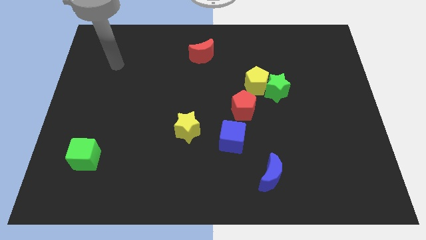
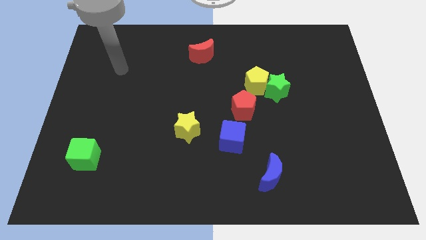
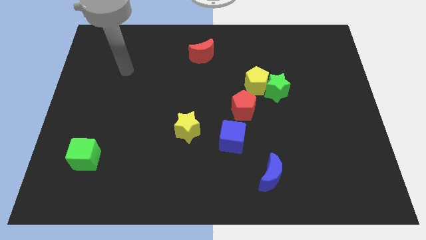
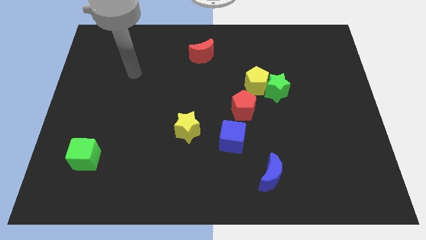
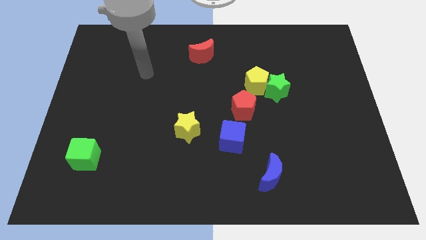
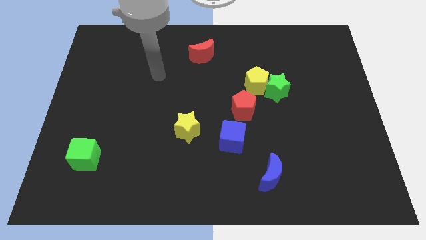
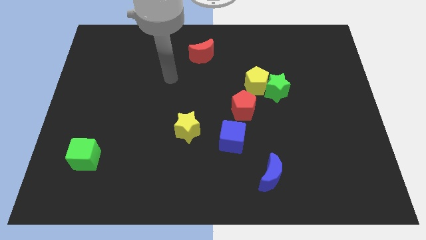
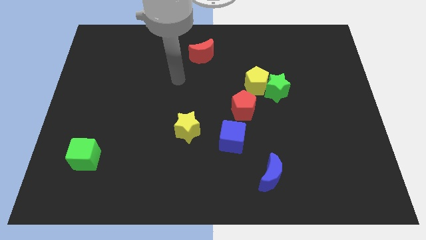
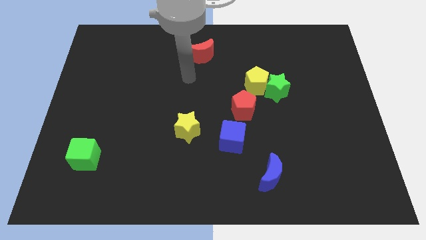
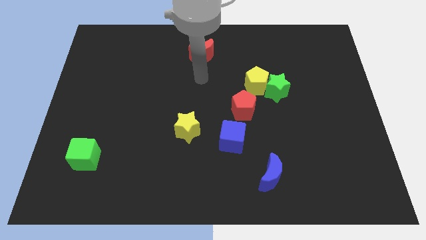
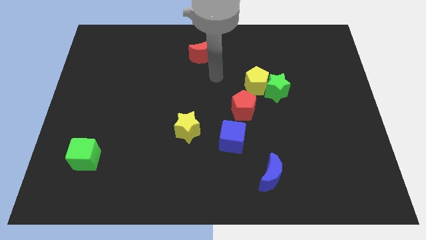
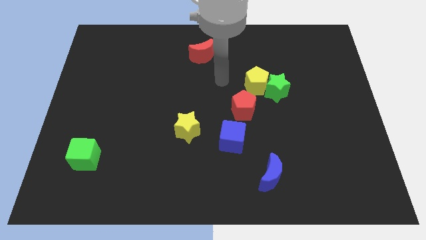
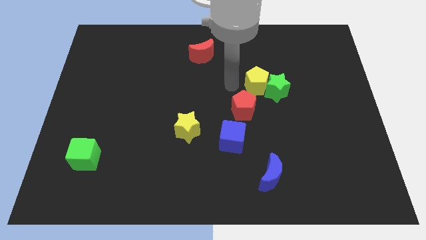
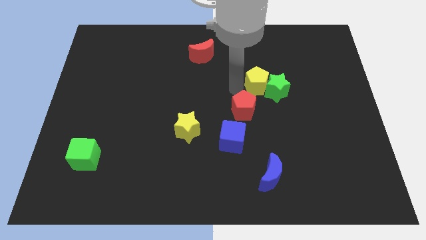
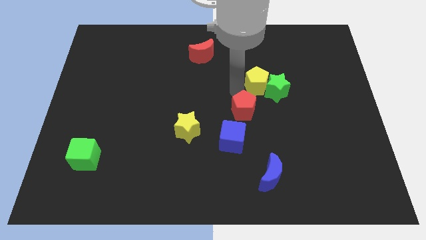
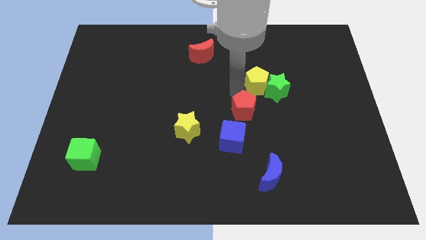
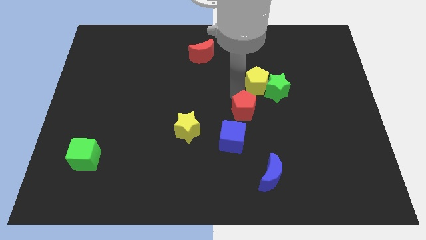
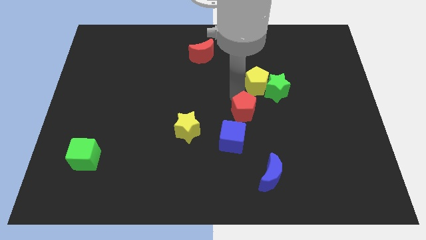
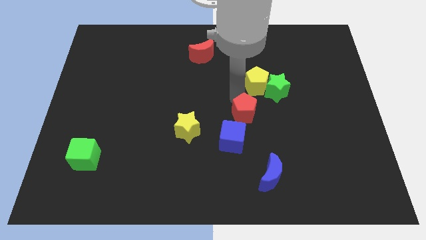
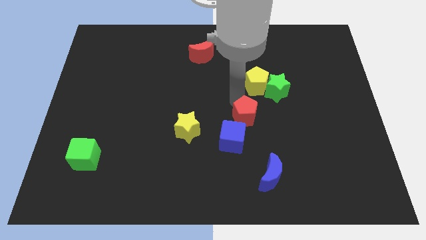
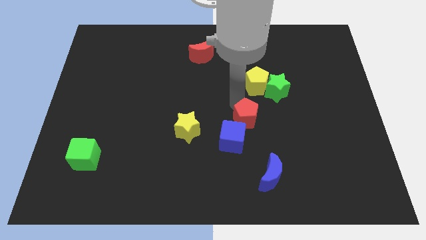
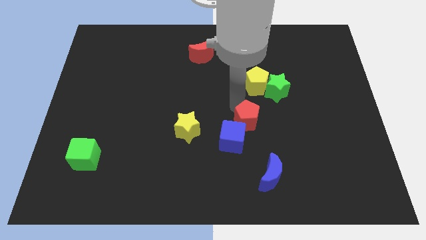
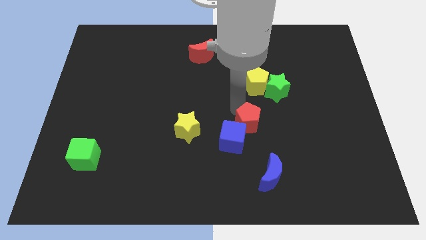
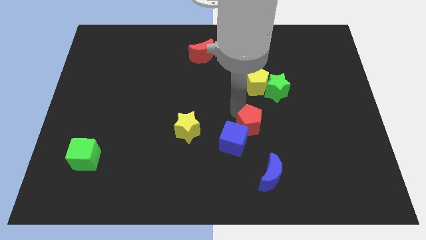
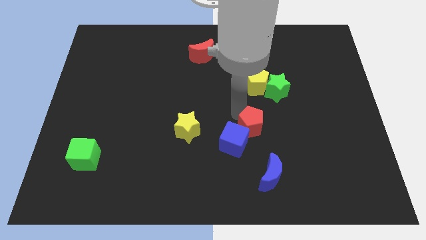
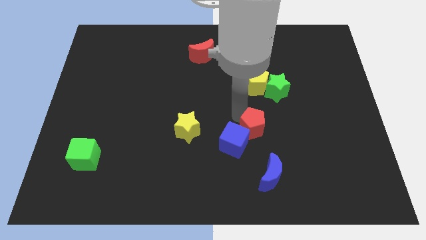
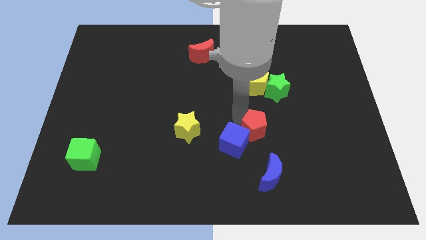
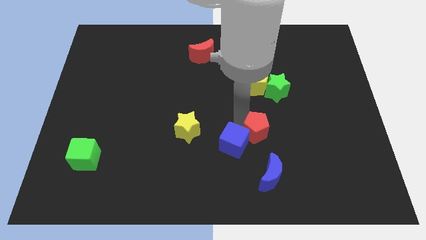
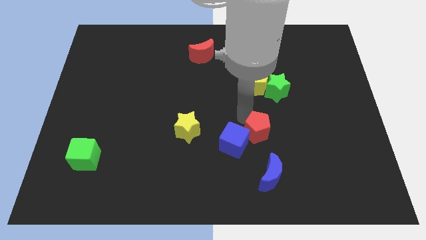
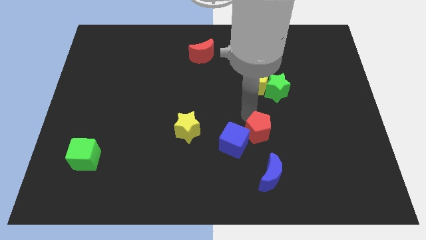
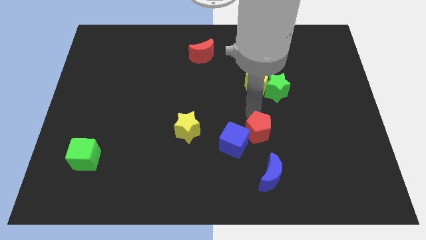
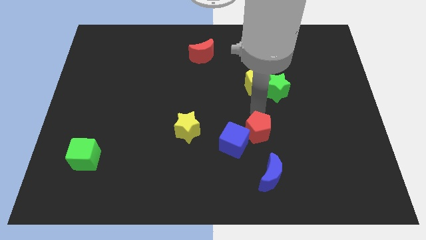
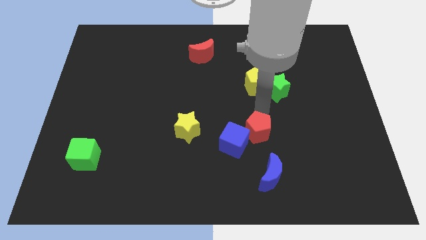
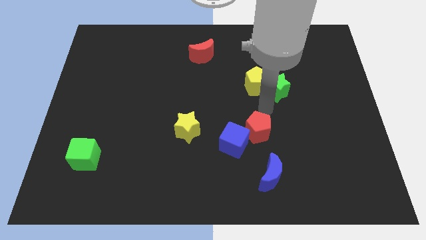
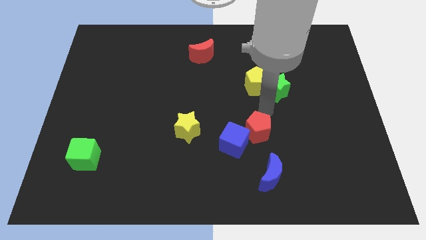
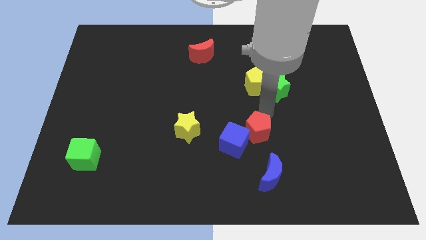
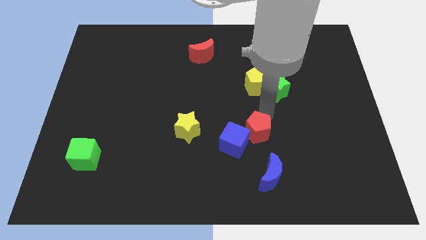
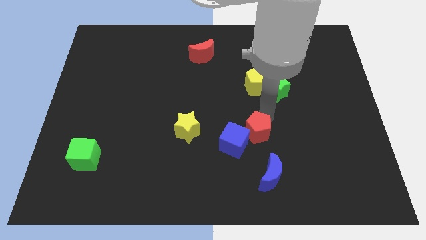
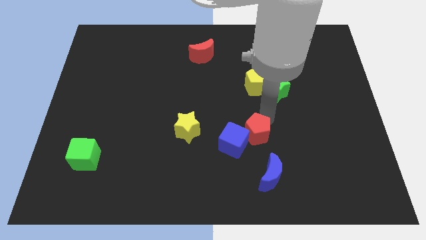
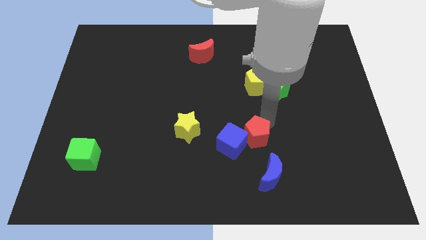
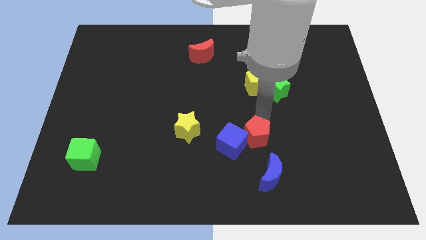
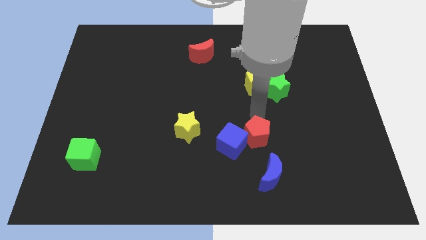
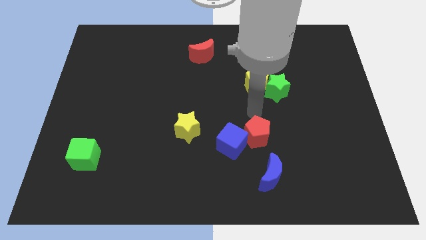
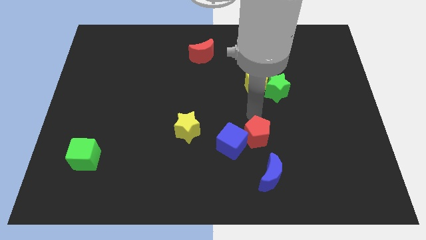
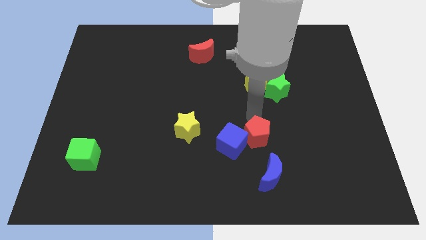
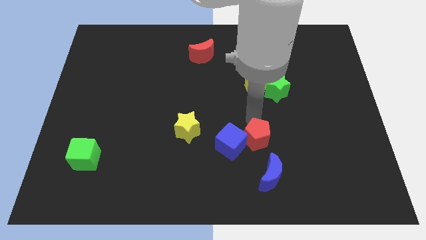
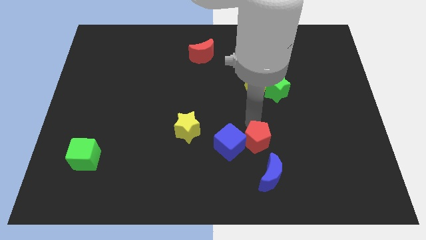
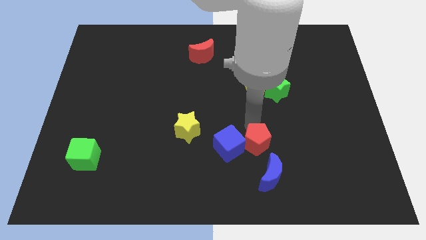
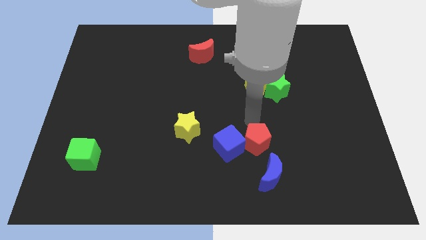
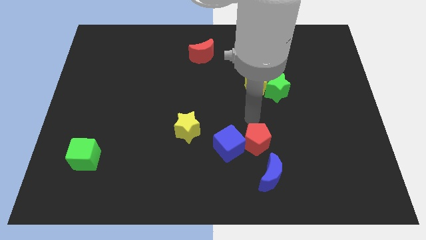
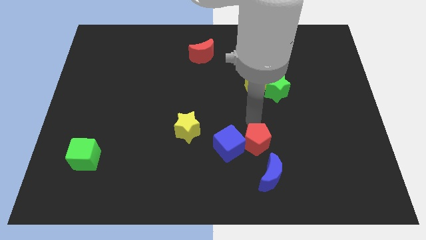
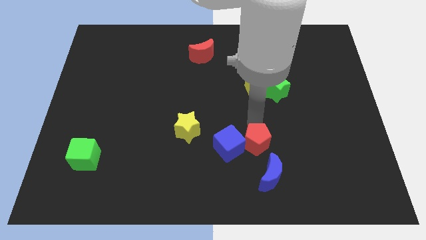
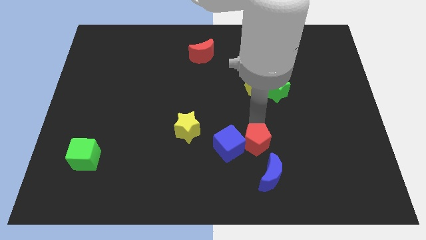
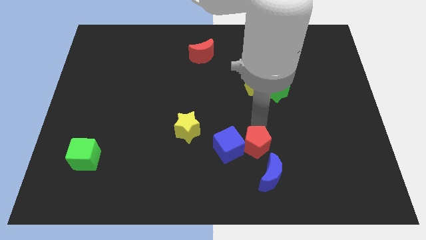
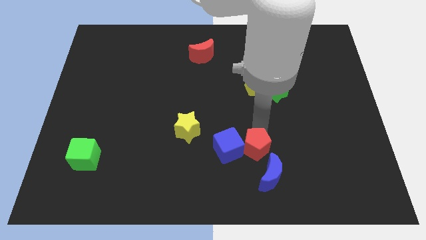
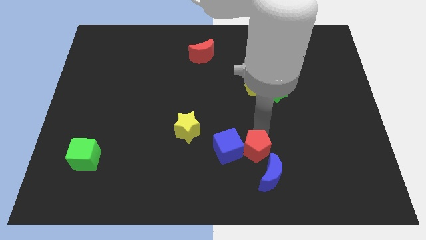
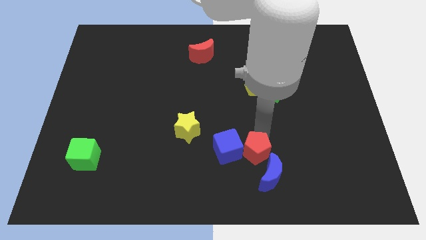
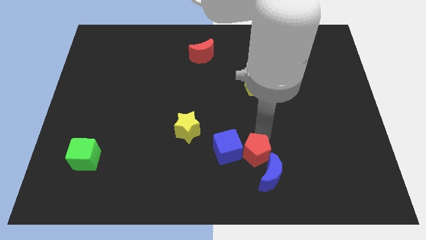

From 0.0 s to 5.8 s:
move the red pentagon towards the blue moon
